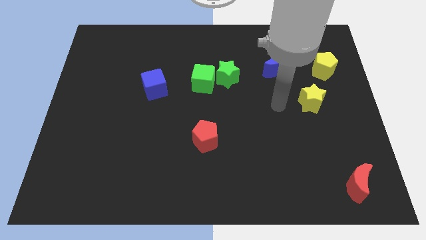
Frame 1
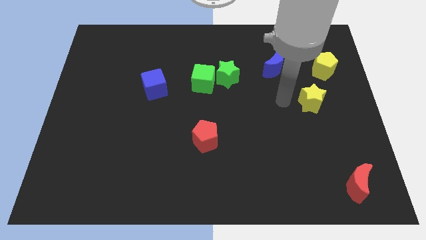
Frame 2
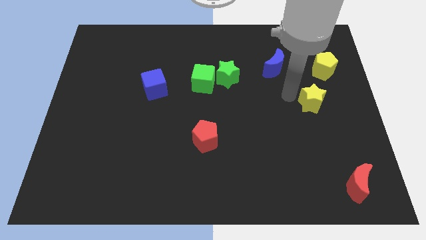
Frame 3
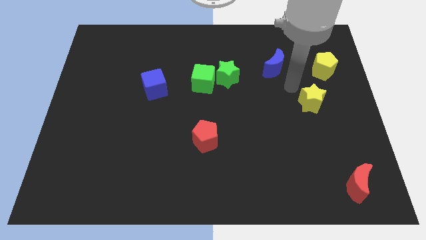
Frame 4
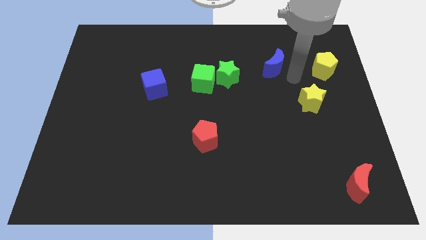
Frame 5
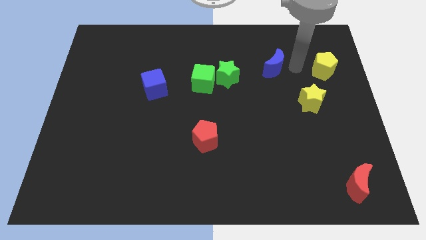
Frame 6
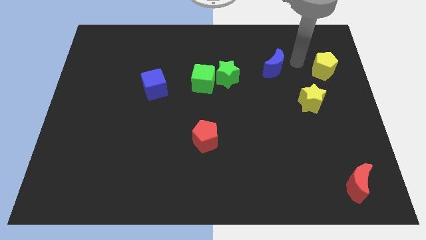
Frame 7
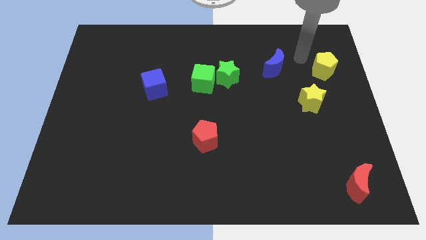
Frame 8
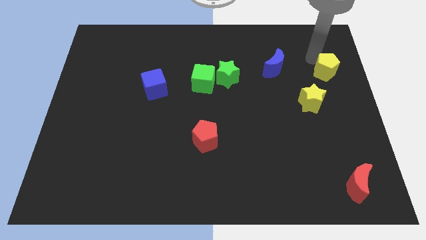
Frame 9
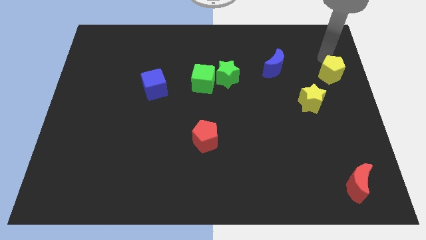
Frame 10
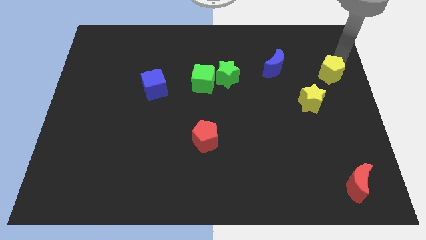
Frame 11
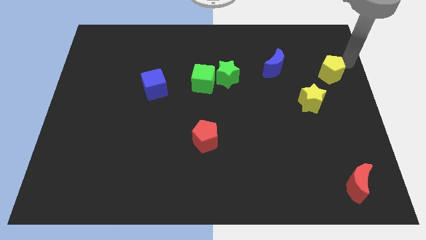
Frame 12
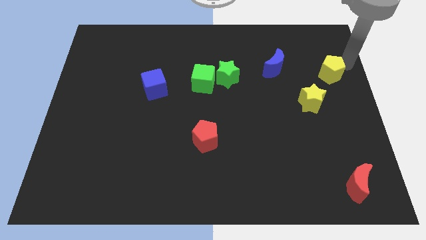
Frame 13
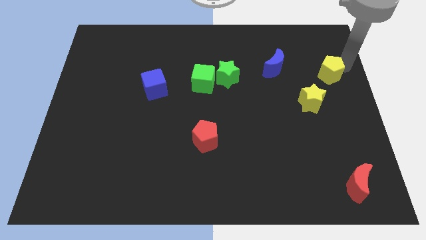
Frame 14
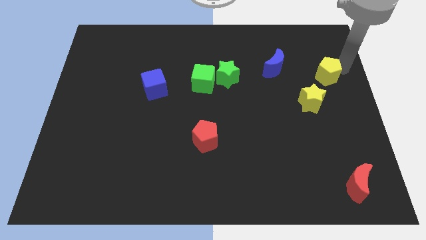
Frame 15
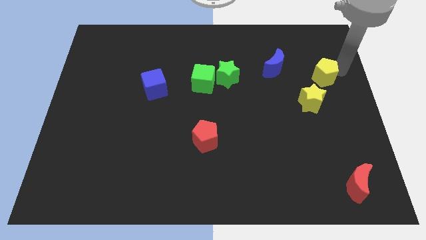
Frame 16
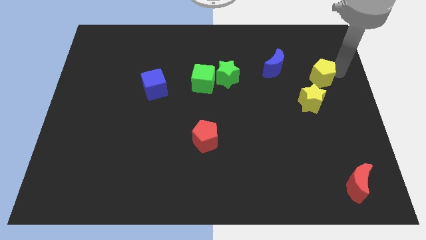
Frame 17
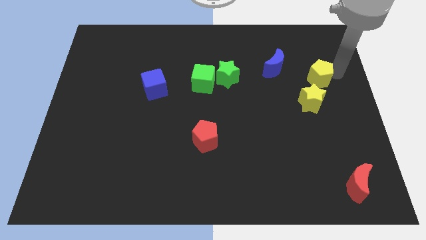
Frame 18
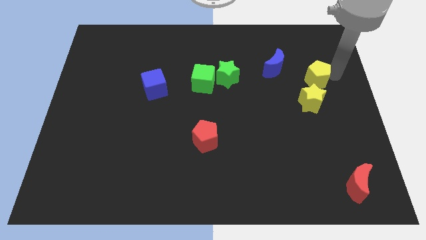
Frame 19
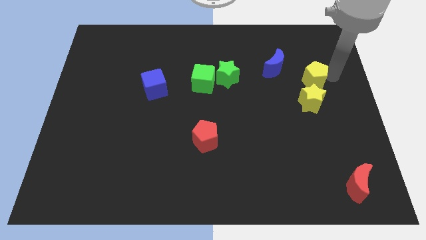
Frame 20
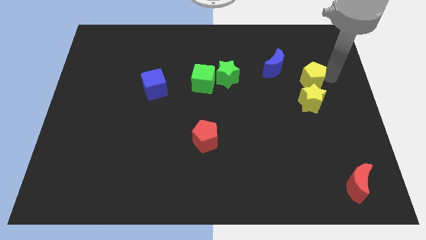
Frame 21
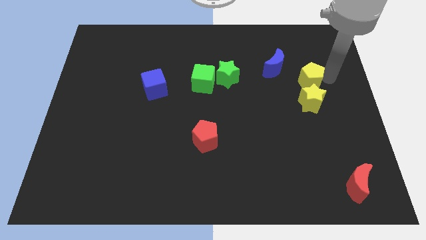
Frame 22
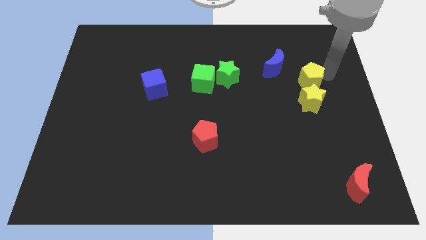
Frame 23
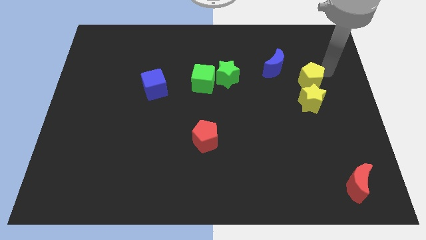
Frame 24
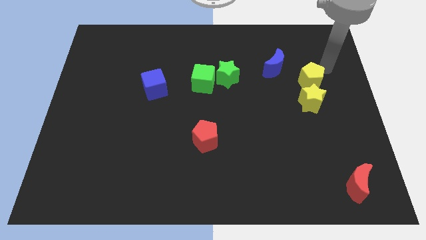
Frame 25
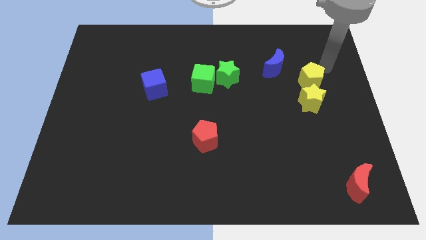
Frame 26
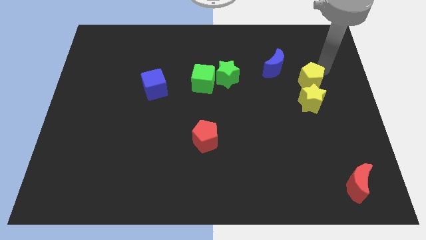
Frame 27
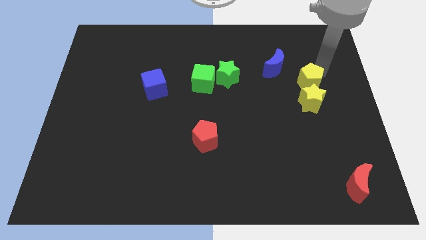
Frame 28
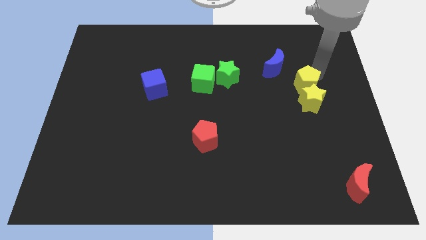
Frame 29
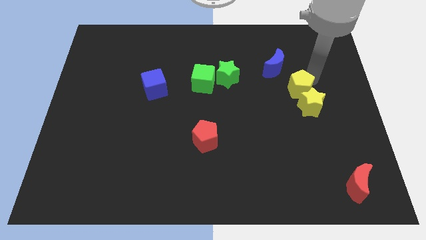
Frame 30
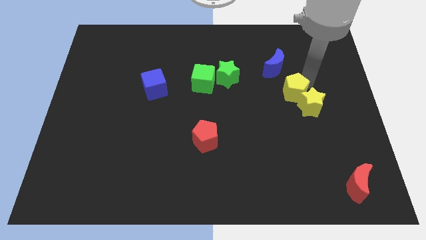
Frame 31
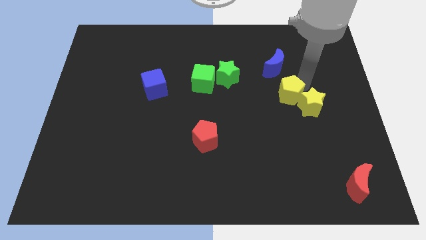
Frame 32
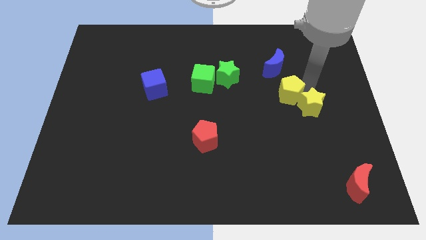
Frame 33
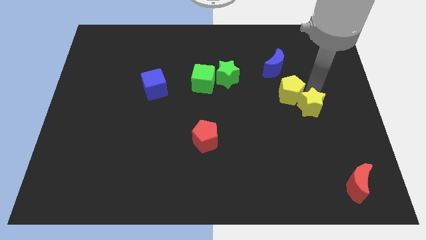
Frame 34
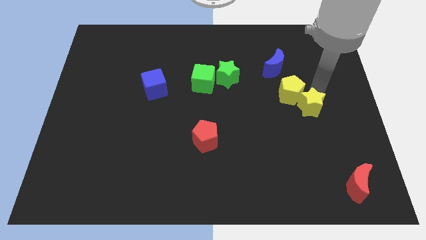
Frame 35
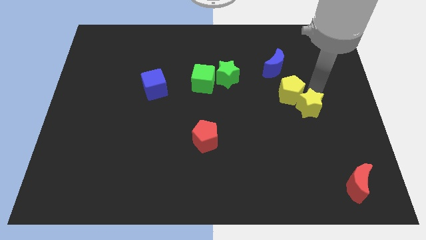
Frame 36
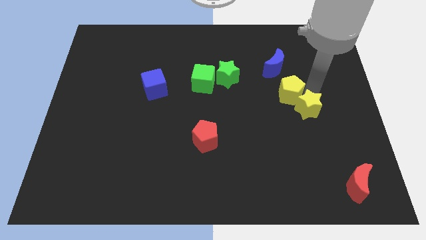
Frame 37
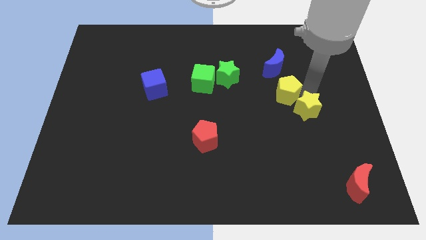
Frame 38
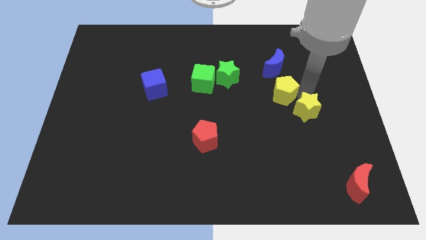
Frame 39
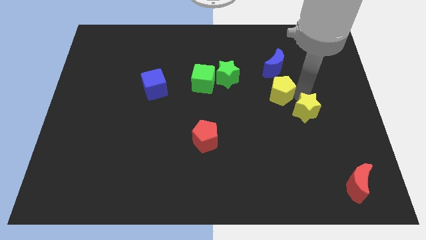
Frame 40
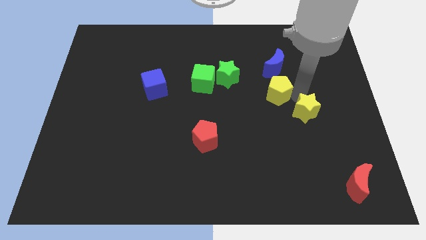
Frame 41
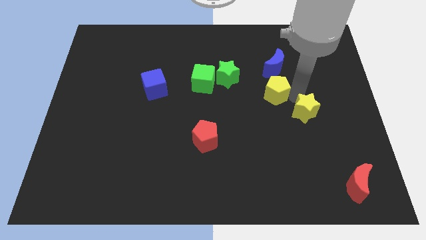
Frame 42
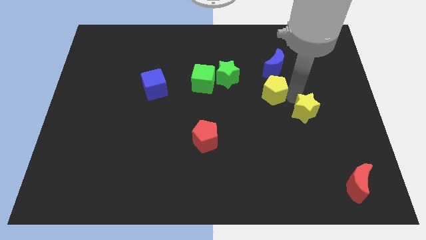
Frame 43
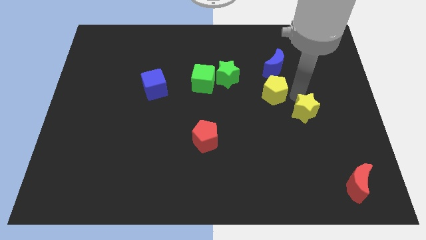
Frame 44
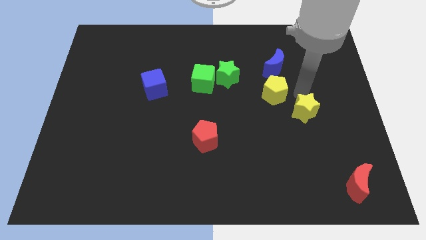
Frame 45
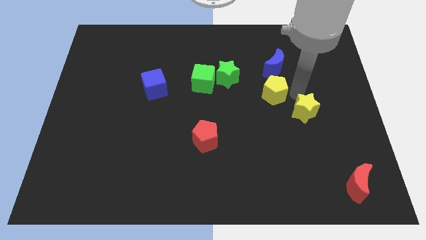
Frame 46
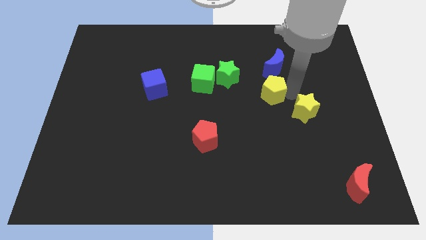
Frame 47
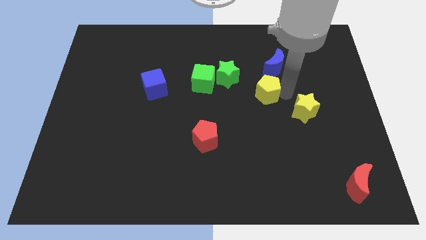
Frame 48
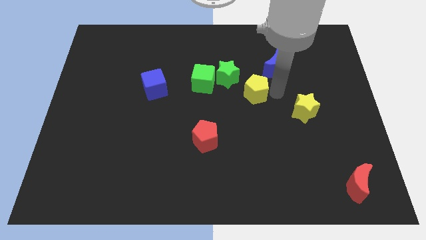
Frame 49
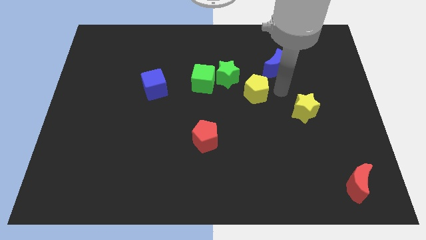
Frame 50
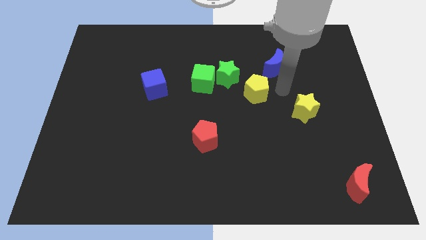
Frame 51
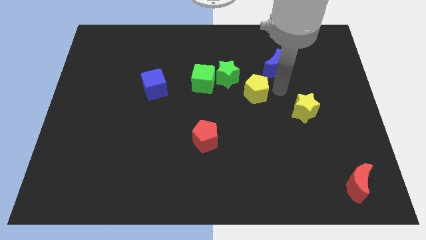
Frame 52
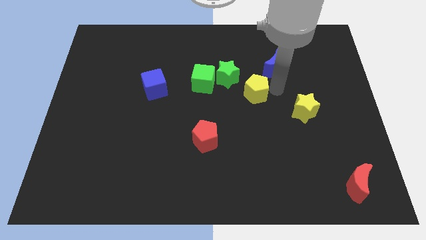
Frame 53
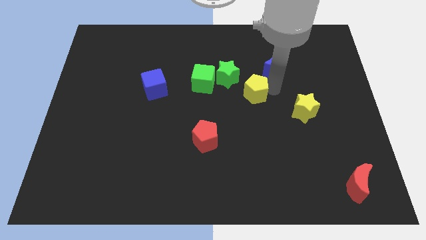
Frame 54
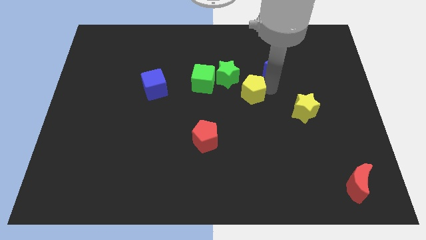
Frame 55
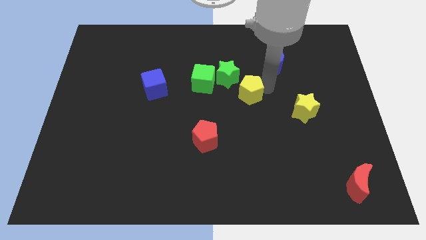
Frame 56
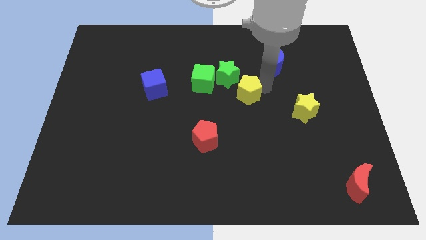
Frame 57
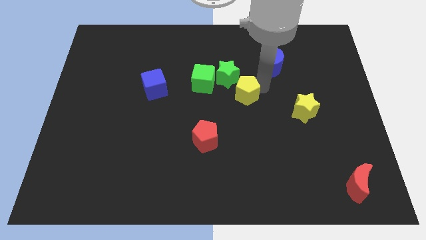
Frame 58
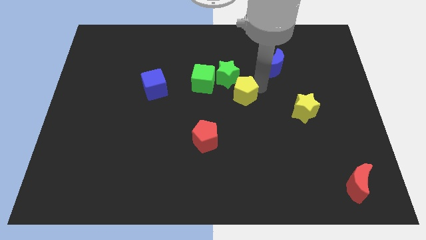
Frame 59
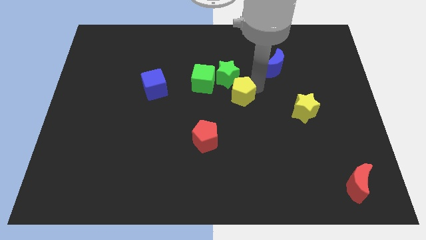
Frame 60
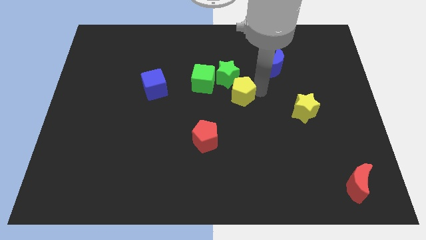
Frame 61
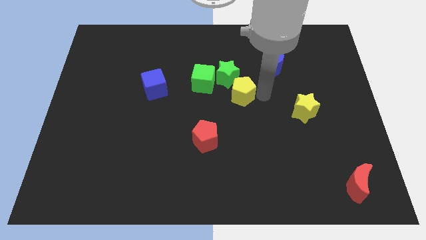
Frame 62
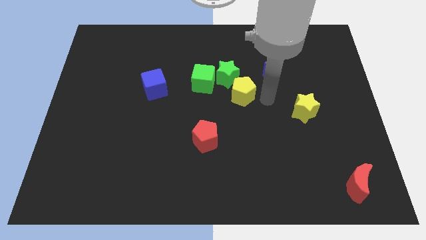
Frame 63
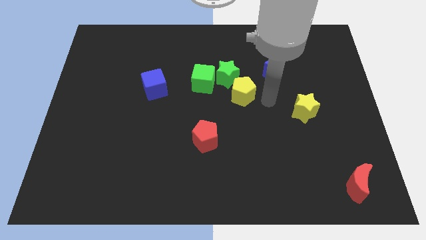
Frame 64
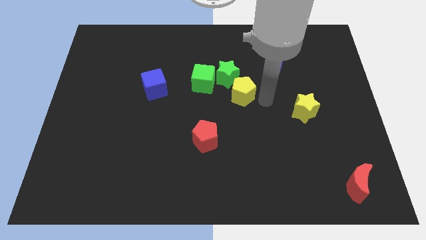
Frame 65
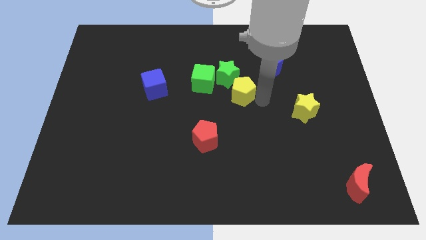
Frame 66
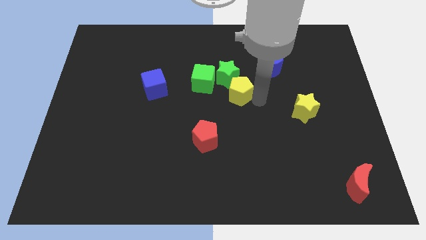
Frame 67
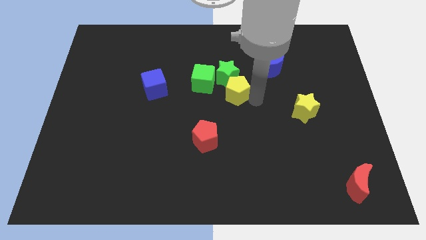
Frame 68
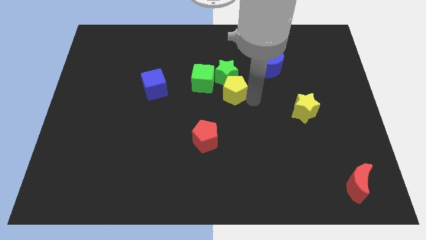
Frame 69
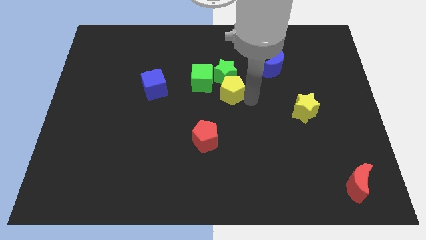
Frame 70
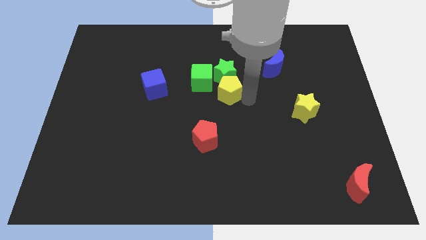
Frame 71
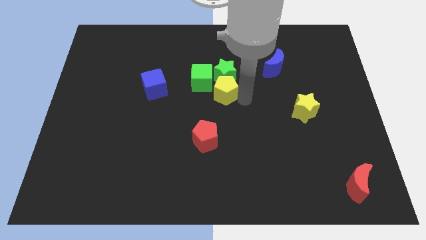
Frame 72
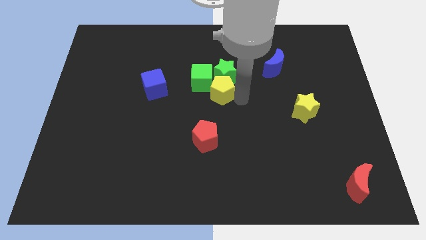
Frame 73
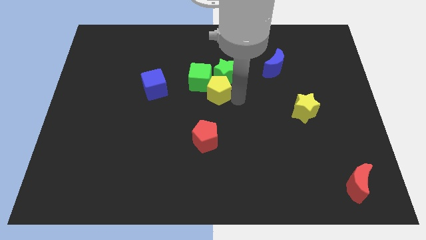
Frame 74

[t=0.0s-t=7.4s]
push the yellow pentagon right of the blue cube
